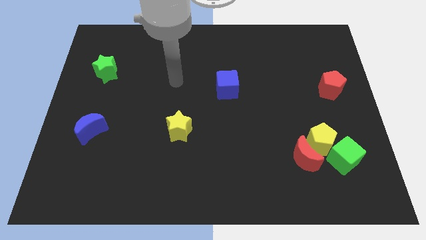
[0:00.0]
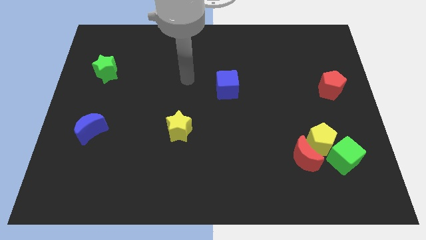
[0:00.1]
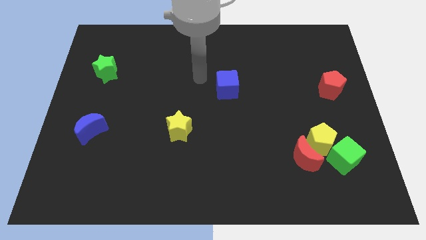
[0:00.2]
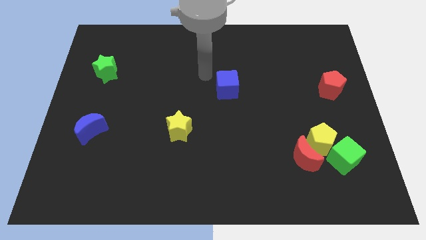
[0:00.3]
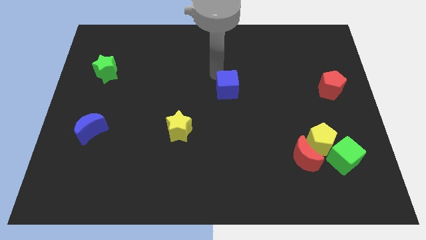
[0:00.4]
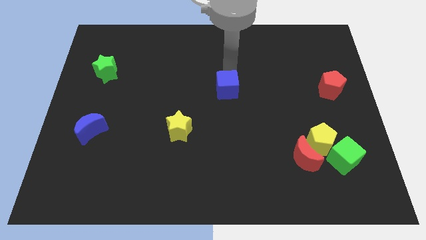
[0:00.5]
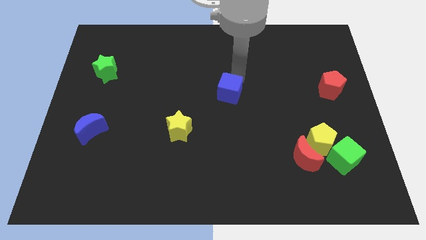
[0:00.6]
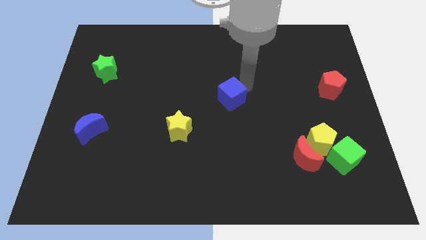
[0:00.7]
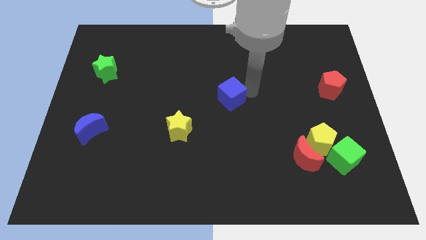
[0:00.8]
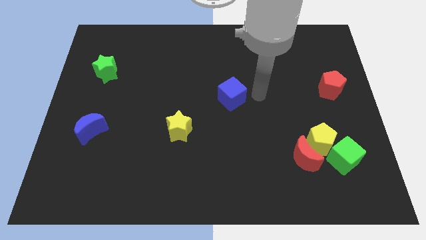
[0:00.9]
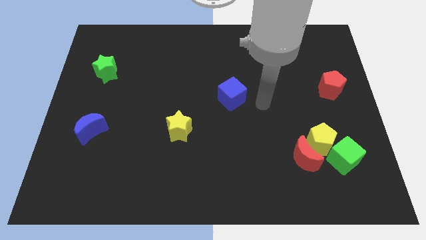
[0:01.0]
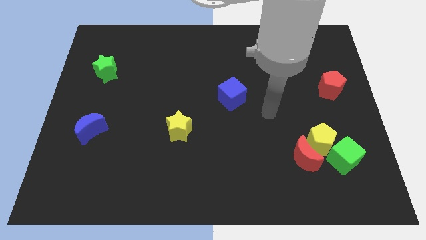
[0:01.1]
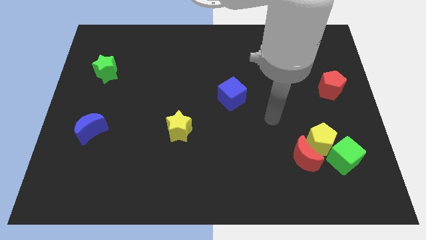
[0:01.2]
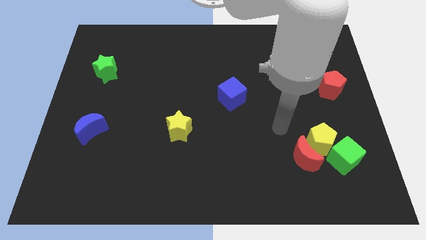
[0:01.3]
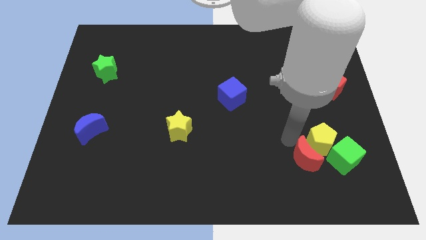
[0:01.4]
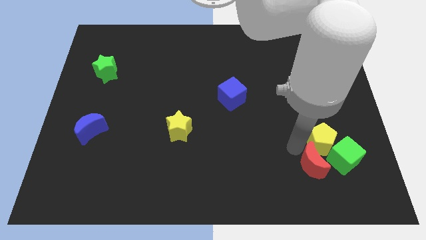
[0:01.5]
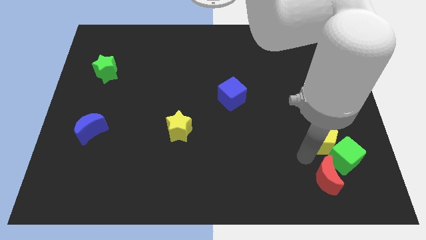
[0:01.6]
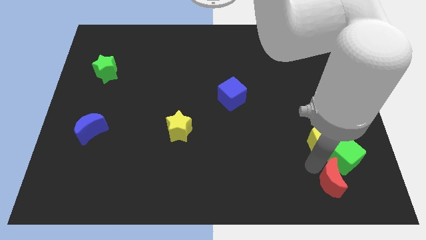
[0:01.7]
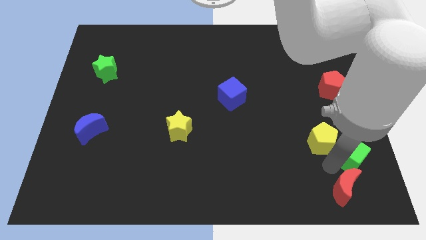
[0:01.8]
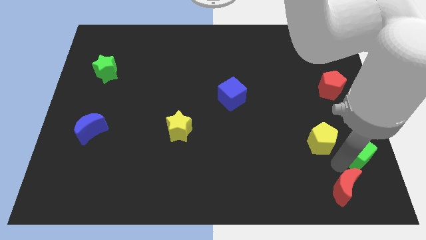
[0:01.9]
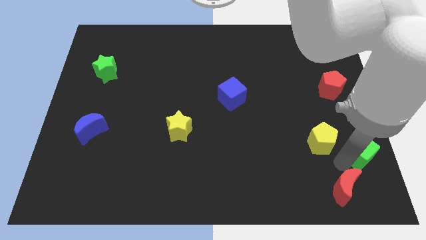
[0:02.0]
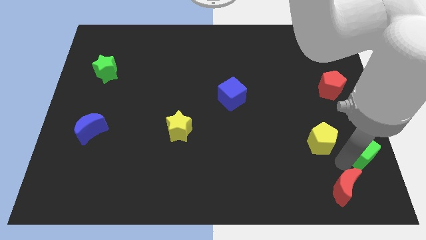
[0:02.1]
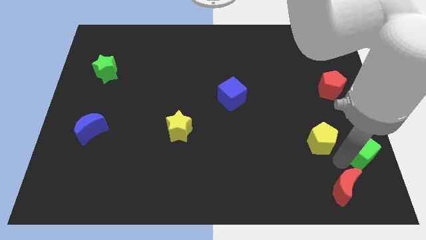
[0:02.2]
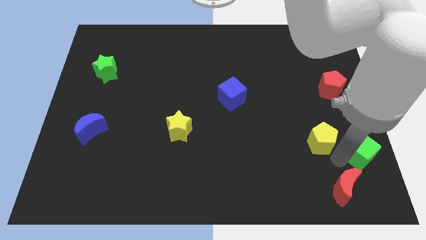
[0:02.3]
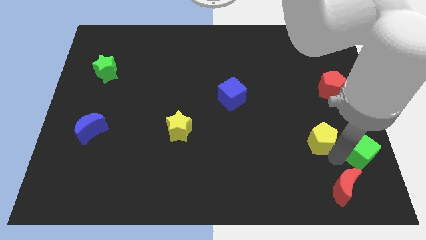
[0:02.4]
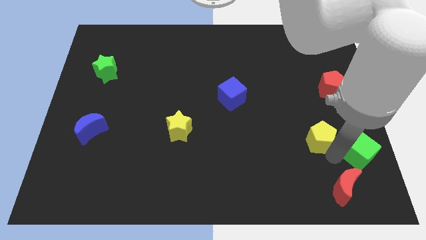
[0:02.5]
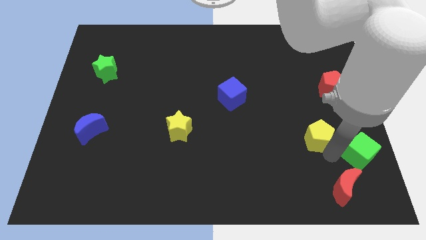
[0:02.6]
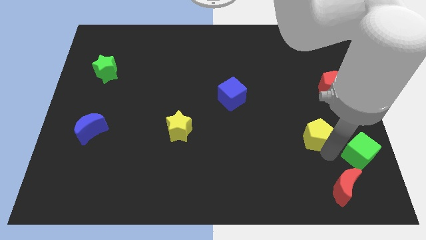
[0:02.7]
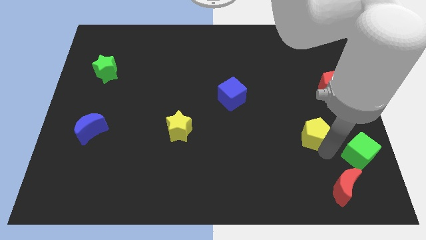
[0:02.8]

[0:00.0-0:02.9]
move the yellow pentagon away from the red moon and green cube

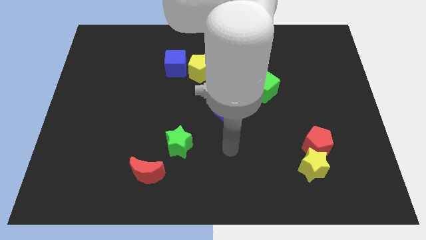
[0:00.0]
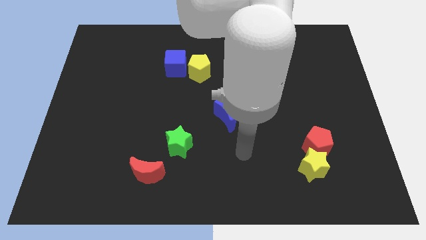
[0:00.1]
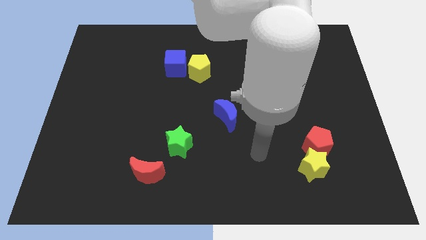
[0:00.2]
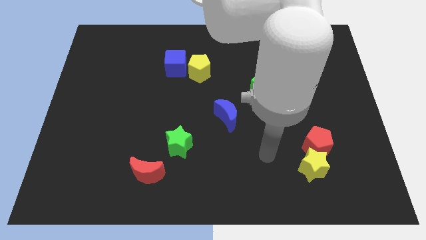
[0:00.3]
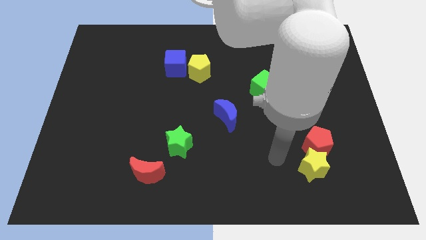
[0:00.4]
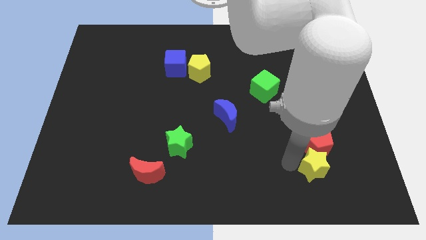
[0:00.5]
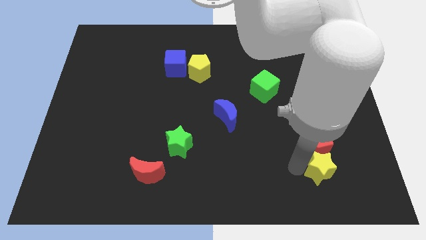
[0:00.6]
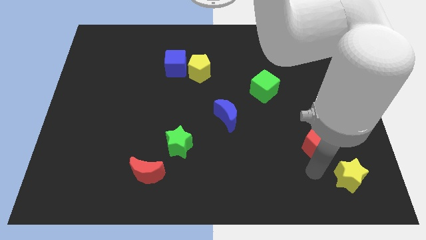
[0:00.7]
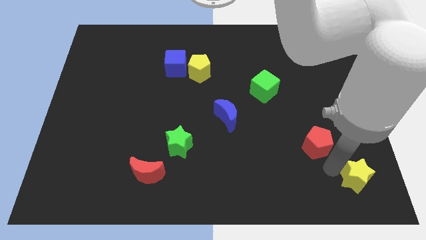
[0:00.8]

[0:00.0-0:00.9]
move the red pentagon away from the yellow star

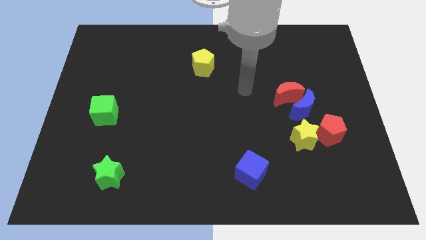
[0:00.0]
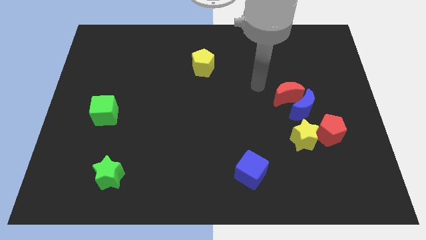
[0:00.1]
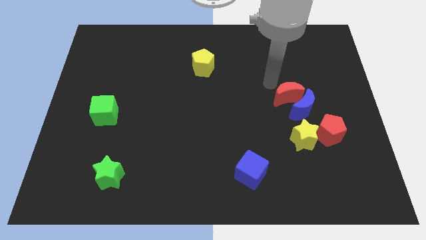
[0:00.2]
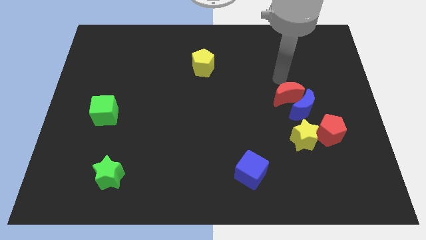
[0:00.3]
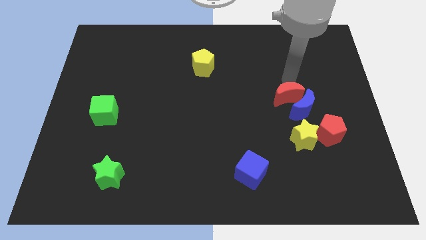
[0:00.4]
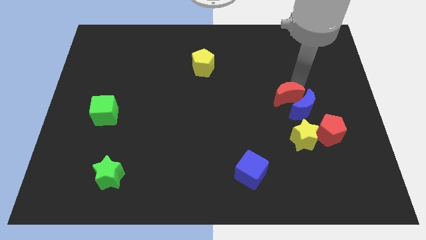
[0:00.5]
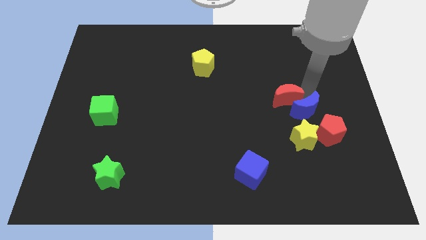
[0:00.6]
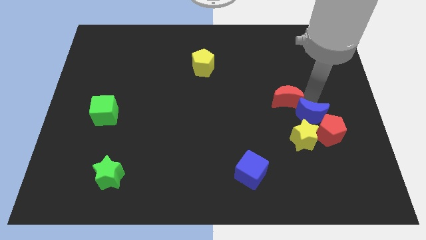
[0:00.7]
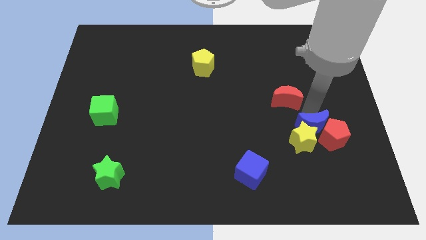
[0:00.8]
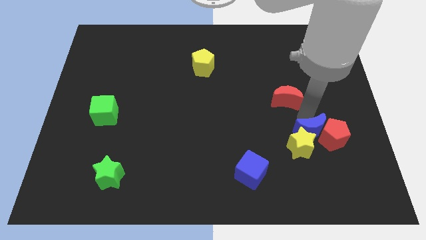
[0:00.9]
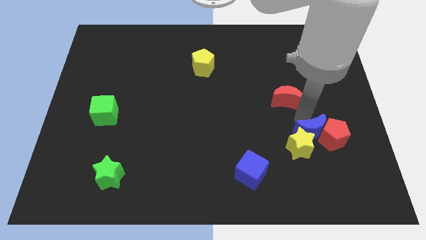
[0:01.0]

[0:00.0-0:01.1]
move the red moon away from the blue moon

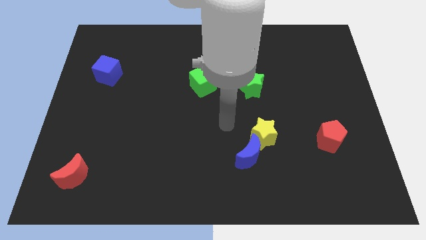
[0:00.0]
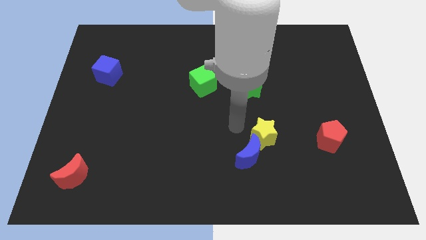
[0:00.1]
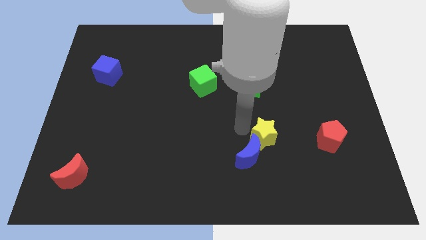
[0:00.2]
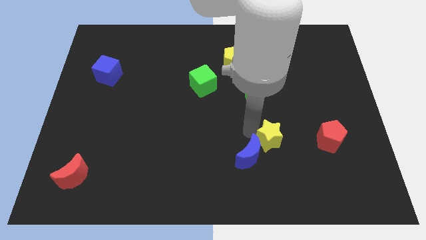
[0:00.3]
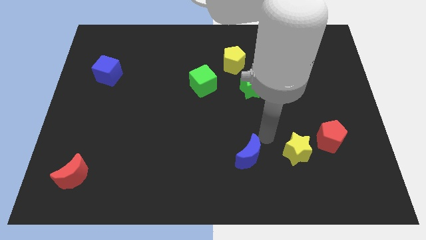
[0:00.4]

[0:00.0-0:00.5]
separate the blue moon from the yellow star

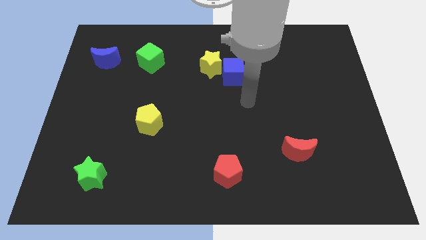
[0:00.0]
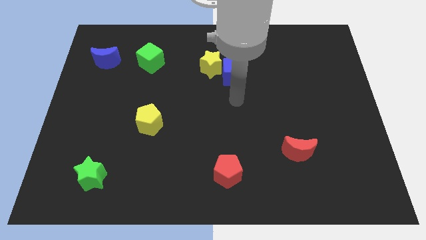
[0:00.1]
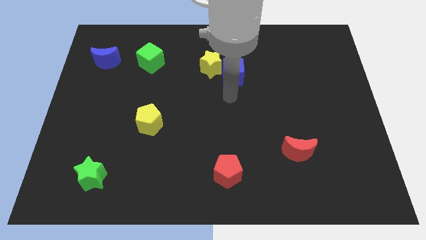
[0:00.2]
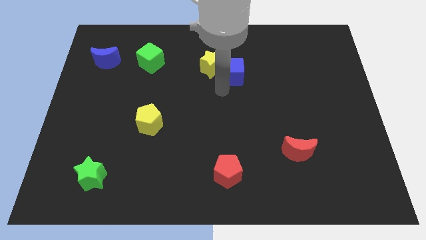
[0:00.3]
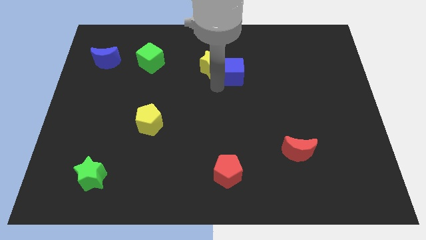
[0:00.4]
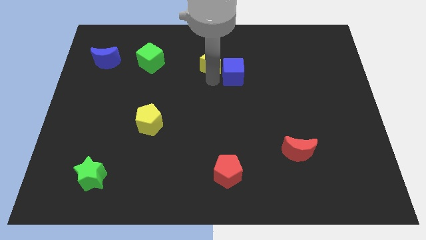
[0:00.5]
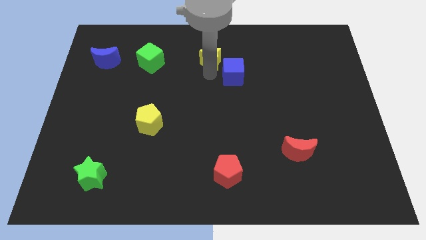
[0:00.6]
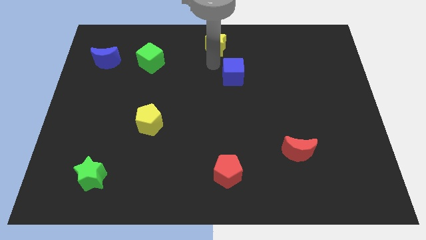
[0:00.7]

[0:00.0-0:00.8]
separate the blue cube from the yellow star

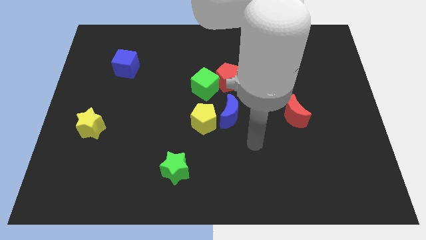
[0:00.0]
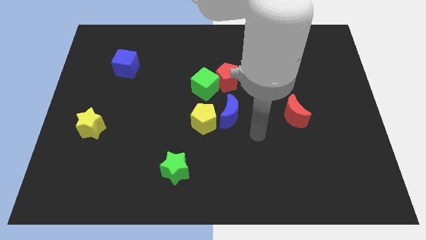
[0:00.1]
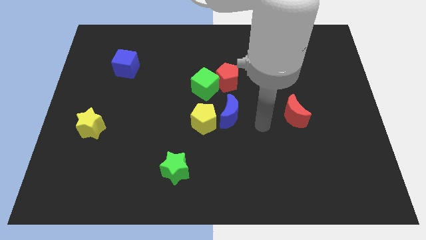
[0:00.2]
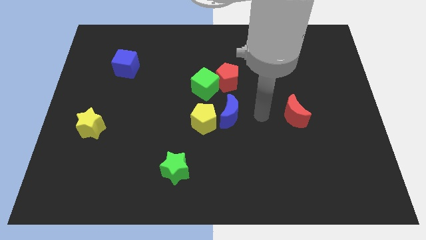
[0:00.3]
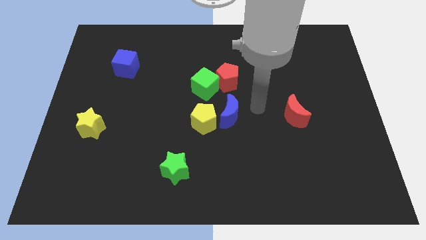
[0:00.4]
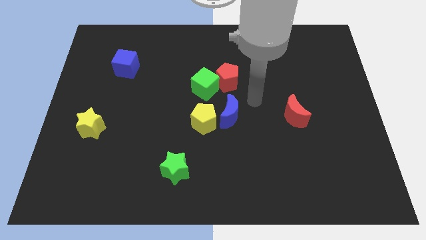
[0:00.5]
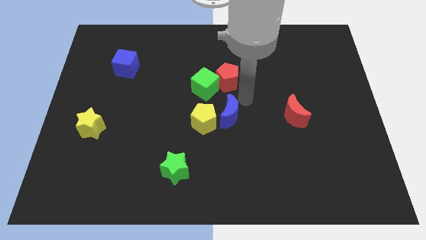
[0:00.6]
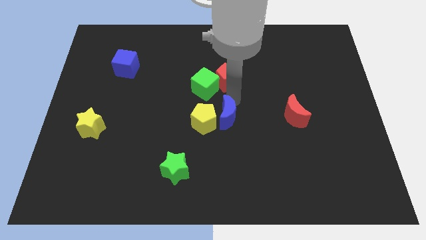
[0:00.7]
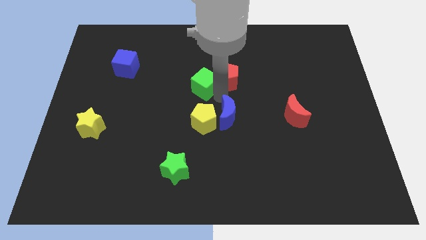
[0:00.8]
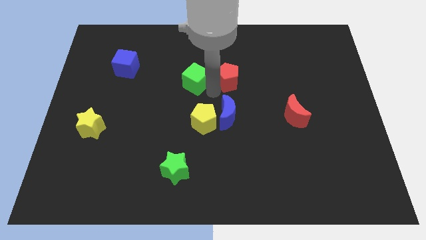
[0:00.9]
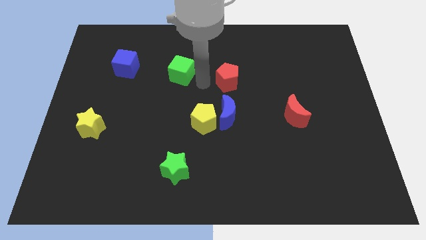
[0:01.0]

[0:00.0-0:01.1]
move the red pentagon away from the green cube

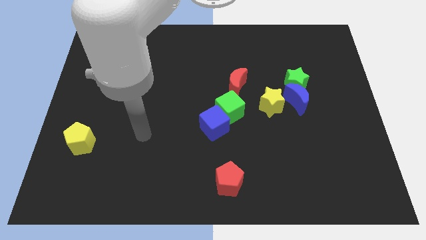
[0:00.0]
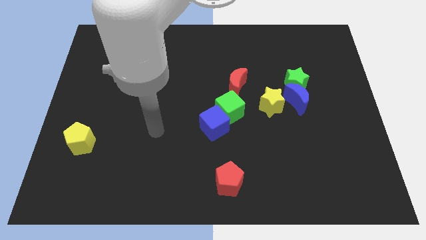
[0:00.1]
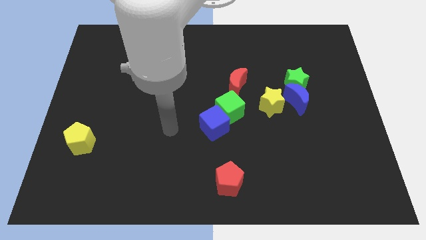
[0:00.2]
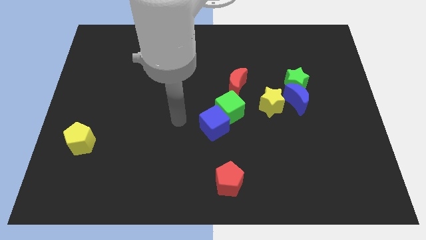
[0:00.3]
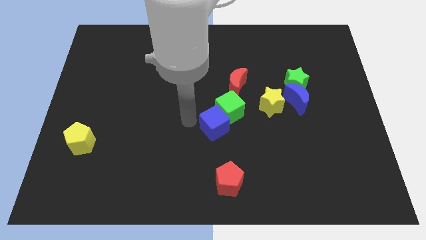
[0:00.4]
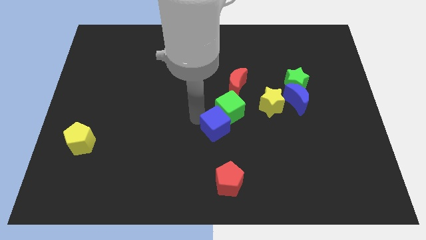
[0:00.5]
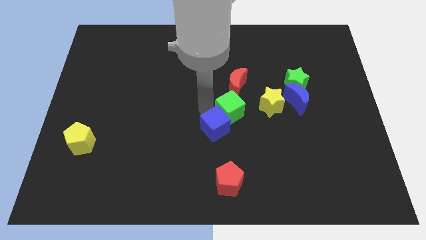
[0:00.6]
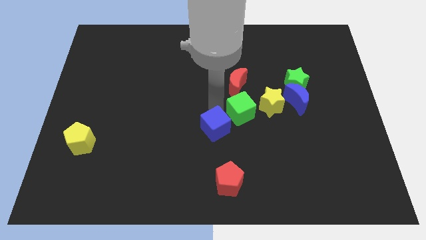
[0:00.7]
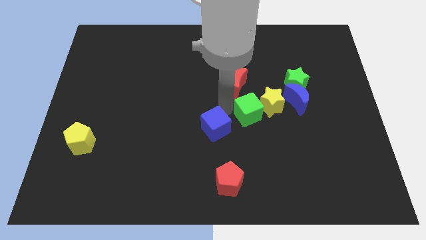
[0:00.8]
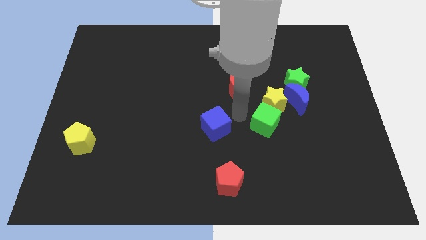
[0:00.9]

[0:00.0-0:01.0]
separate the blue cube from the green cube

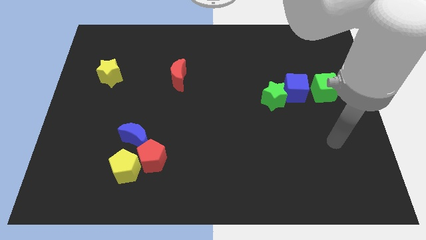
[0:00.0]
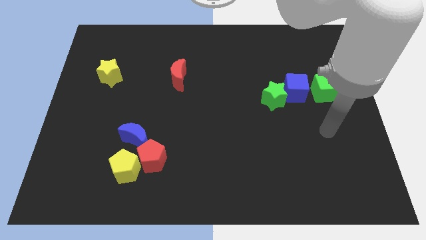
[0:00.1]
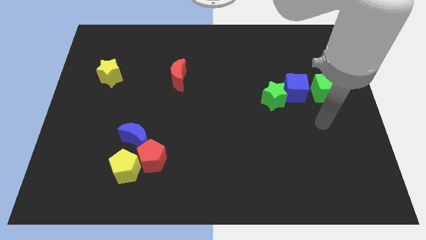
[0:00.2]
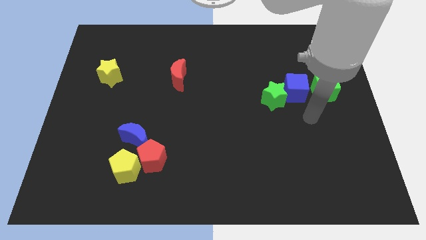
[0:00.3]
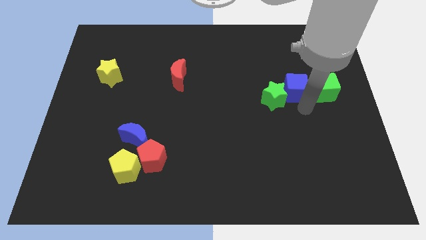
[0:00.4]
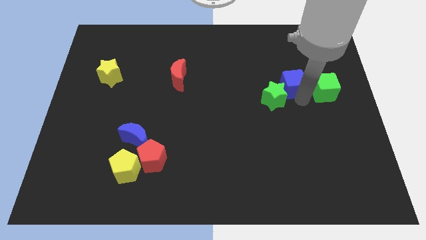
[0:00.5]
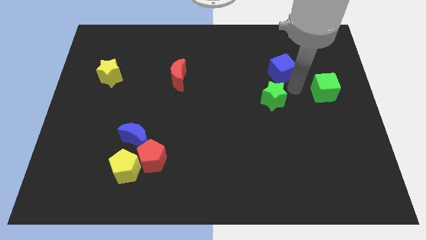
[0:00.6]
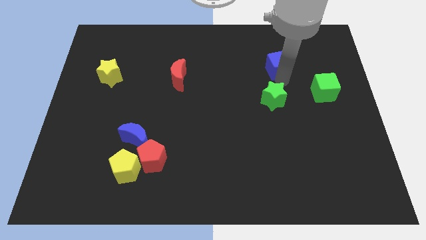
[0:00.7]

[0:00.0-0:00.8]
move the green star away from the blue cube

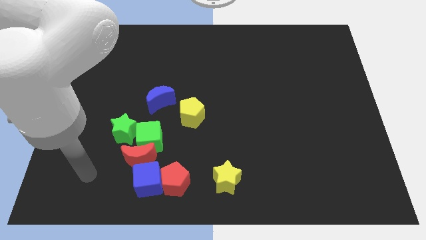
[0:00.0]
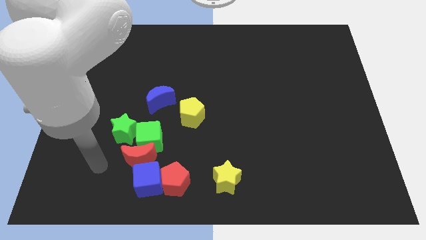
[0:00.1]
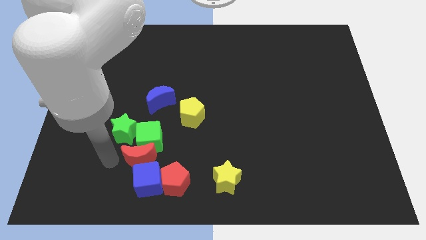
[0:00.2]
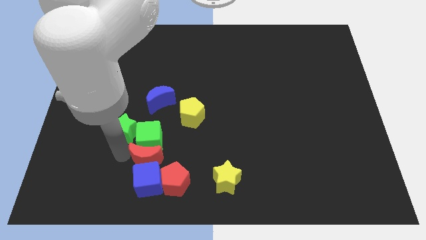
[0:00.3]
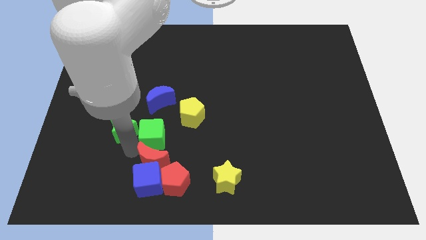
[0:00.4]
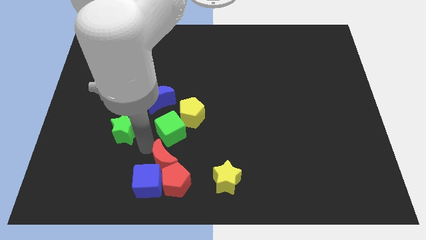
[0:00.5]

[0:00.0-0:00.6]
pull the green star apart from the green cube and red moon
